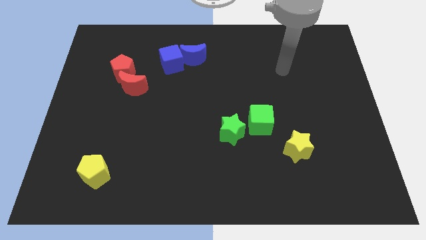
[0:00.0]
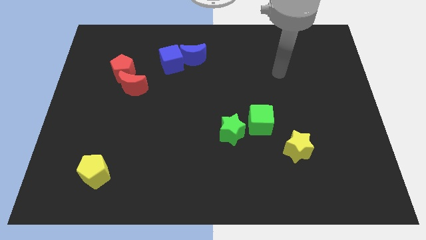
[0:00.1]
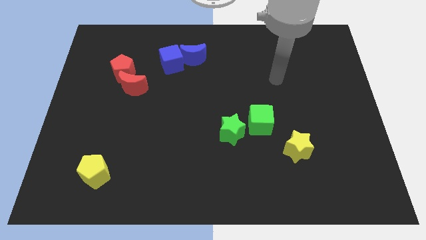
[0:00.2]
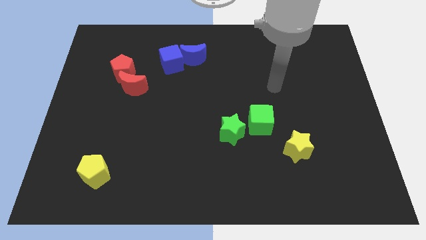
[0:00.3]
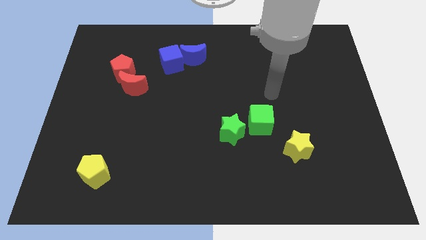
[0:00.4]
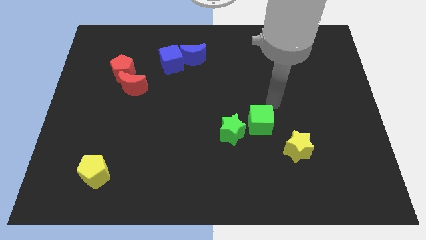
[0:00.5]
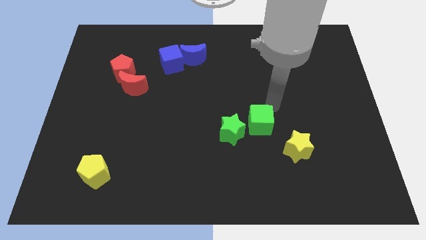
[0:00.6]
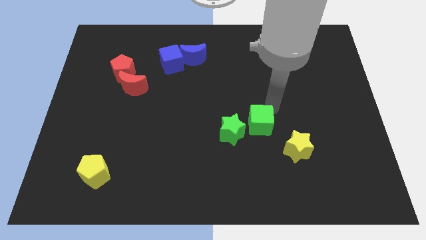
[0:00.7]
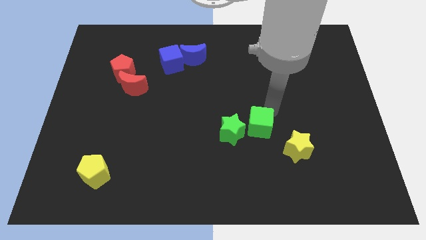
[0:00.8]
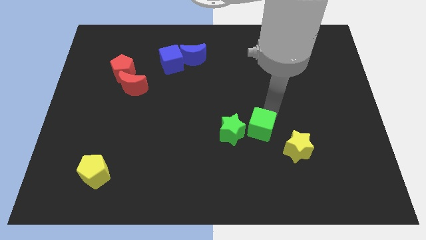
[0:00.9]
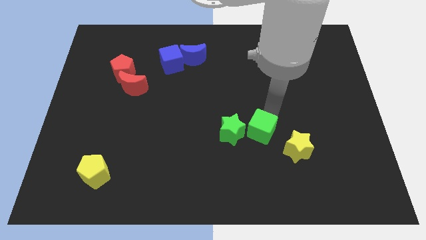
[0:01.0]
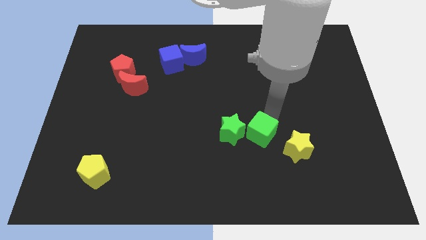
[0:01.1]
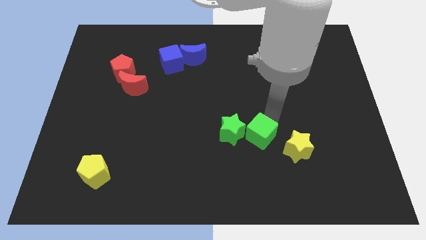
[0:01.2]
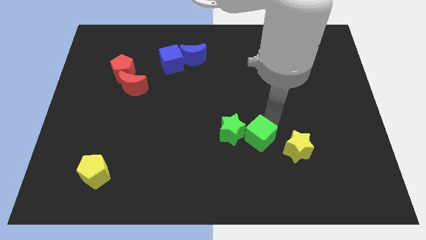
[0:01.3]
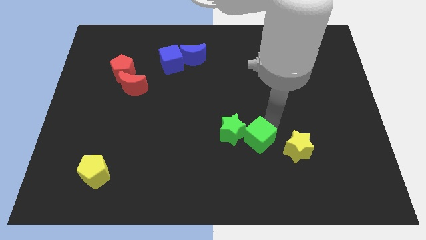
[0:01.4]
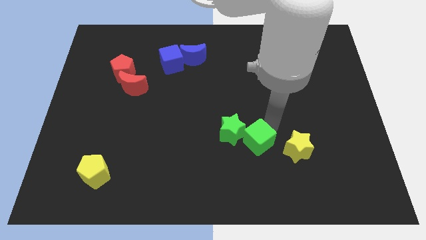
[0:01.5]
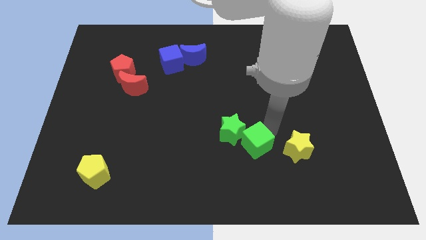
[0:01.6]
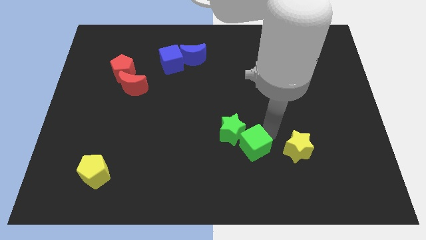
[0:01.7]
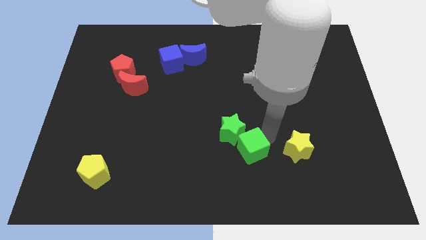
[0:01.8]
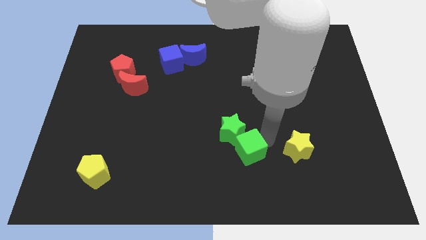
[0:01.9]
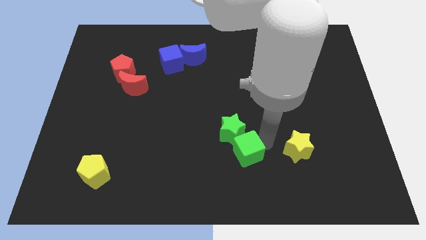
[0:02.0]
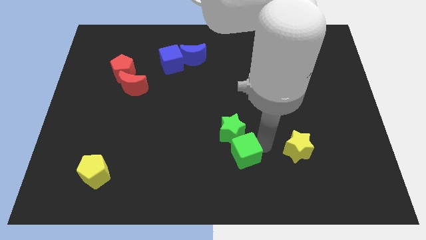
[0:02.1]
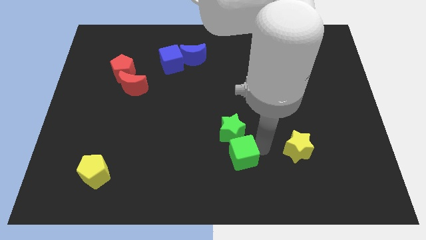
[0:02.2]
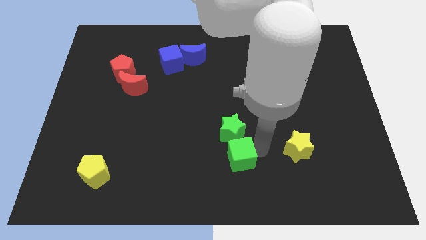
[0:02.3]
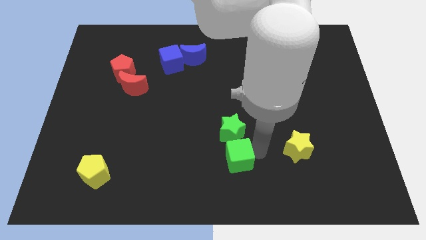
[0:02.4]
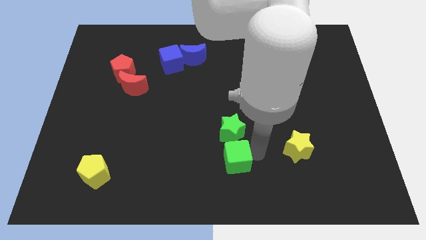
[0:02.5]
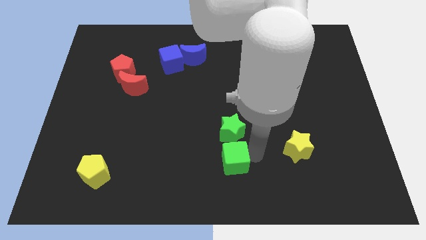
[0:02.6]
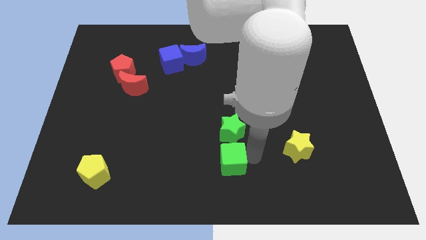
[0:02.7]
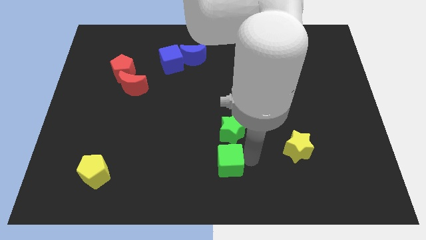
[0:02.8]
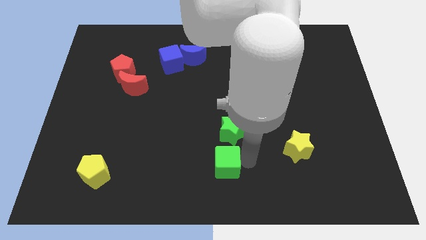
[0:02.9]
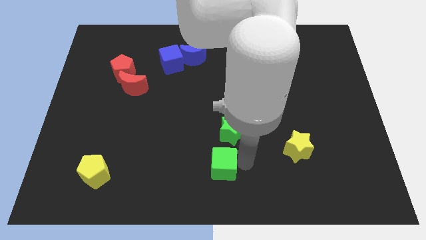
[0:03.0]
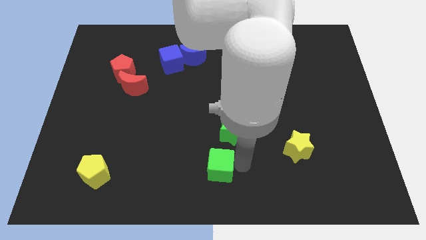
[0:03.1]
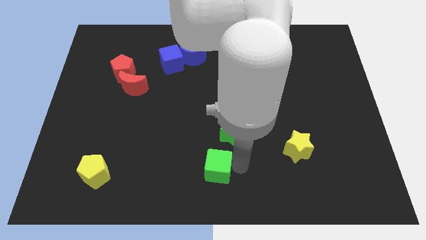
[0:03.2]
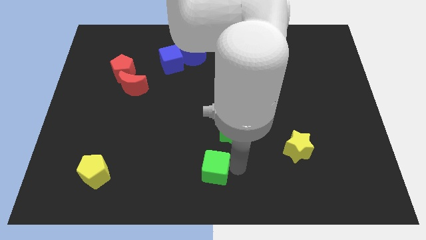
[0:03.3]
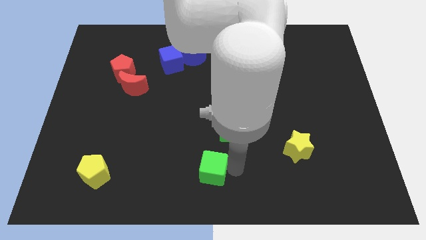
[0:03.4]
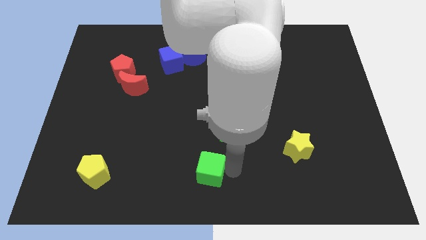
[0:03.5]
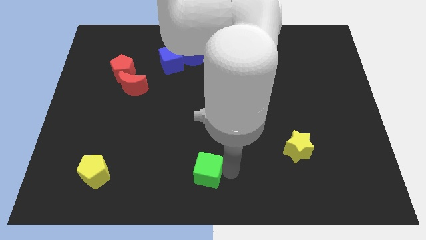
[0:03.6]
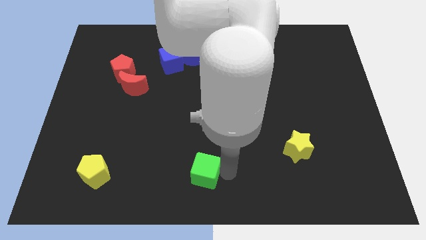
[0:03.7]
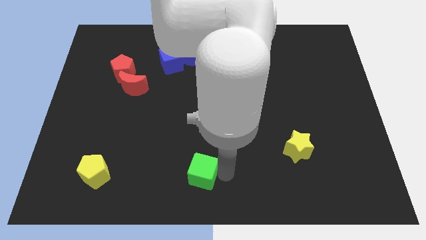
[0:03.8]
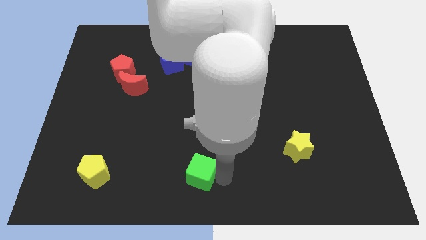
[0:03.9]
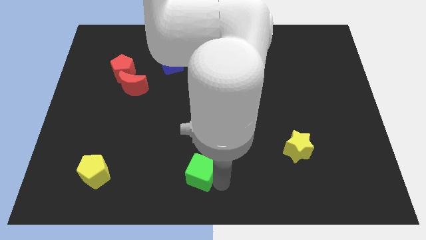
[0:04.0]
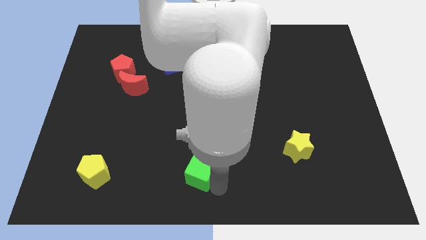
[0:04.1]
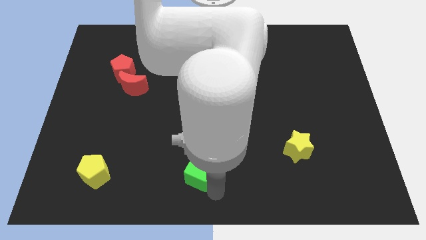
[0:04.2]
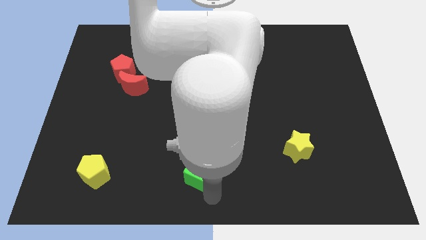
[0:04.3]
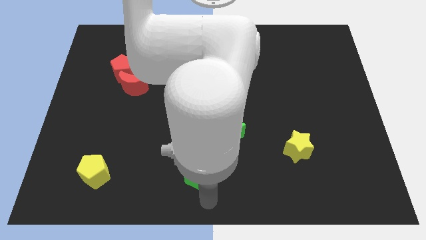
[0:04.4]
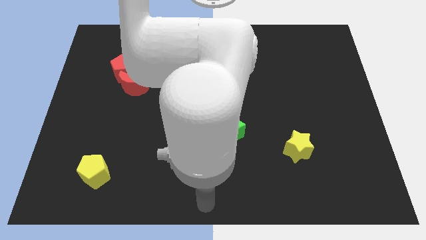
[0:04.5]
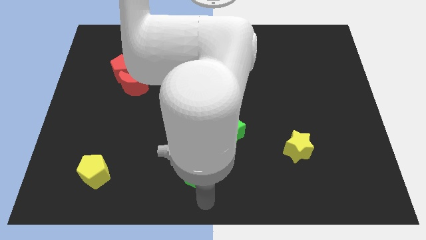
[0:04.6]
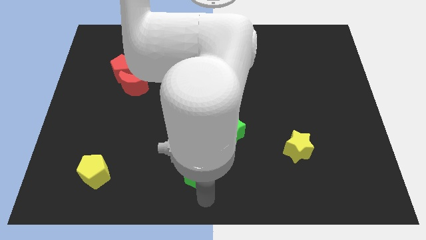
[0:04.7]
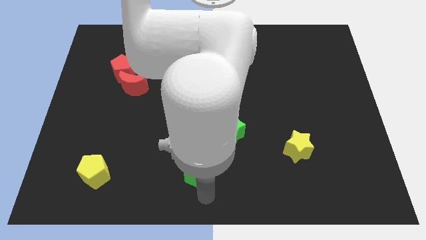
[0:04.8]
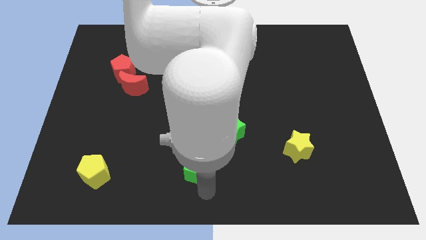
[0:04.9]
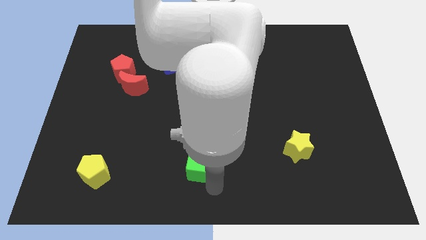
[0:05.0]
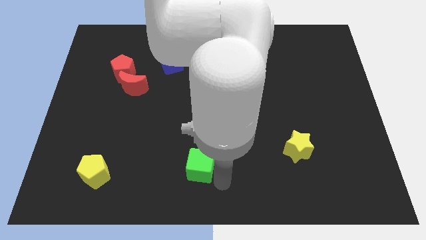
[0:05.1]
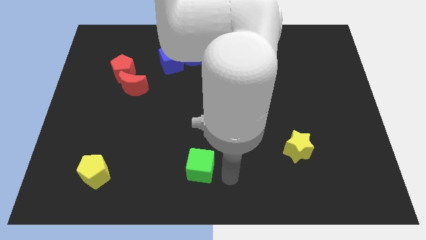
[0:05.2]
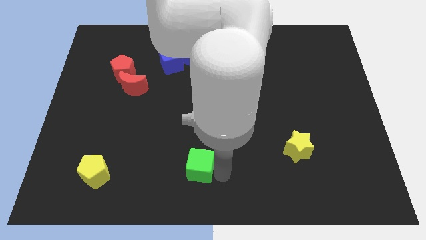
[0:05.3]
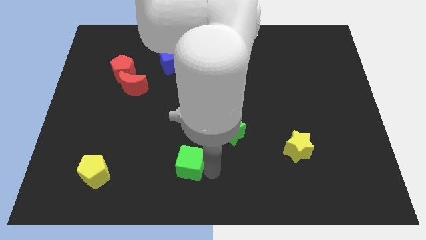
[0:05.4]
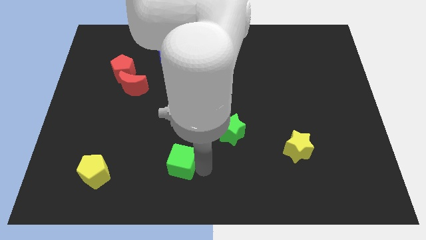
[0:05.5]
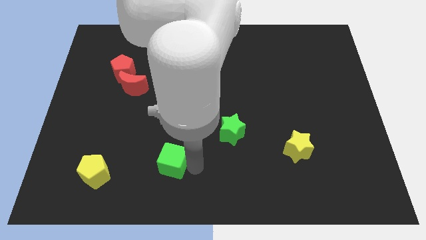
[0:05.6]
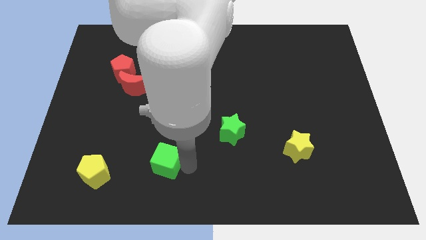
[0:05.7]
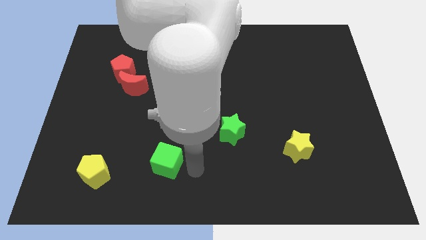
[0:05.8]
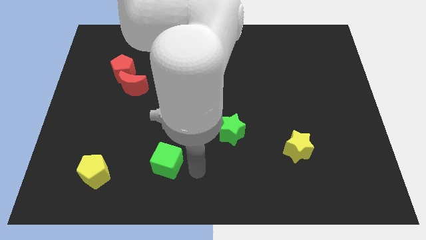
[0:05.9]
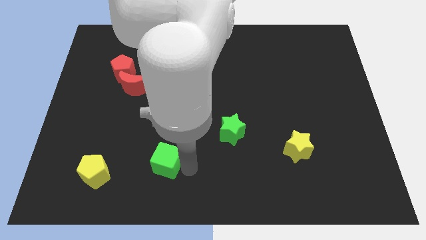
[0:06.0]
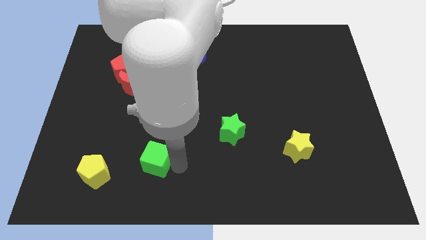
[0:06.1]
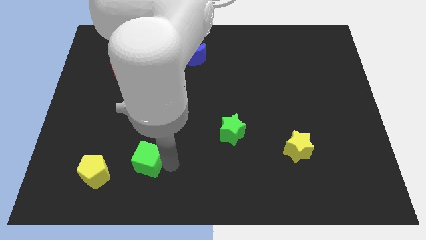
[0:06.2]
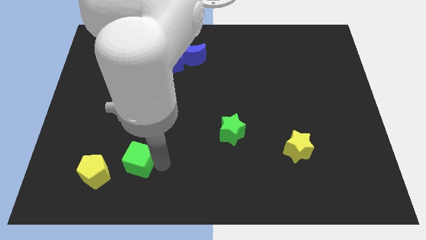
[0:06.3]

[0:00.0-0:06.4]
move the green cube diagonally up and to the right of the yellow pentagon

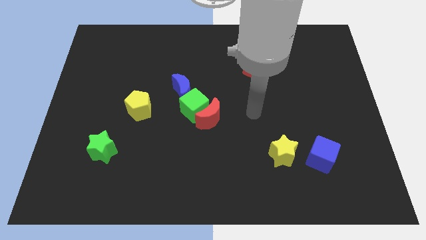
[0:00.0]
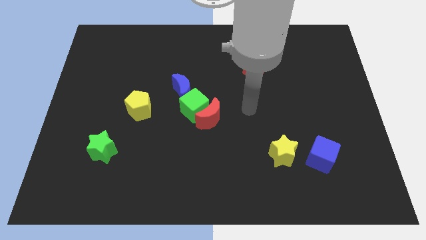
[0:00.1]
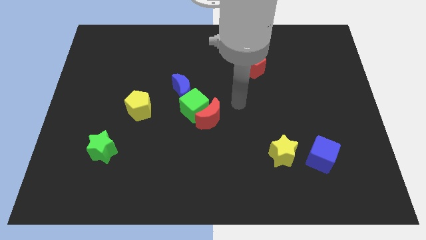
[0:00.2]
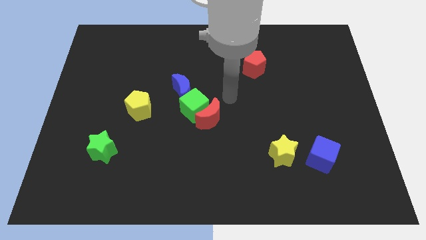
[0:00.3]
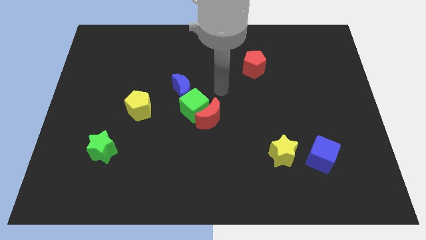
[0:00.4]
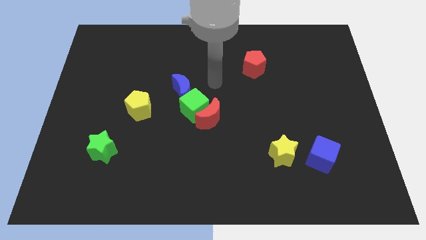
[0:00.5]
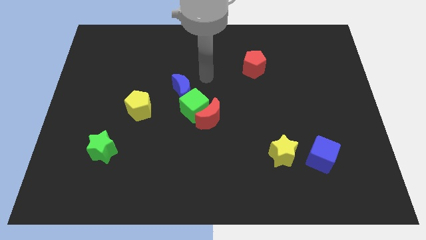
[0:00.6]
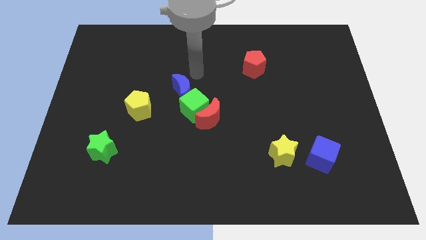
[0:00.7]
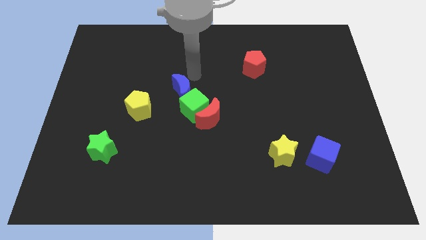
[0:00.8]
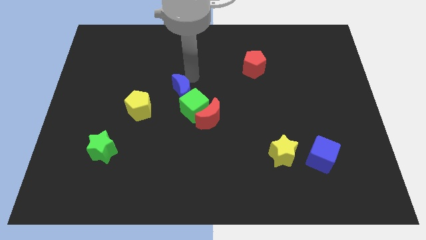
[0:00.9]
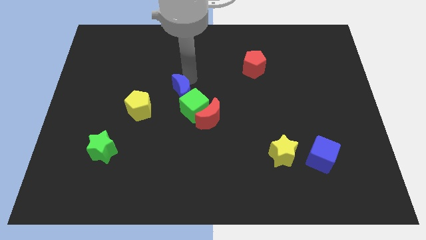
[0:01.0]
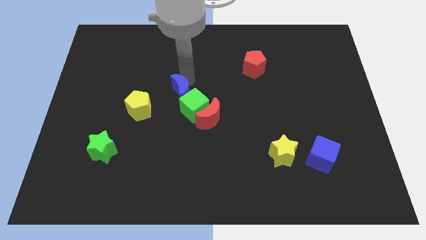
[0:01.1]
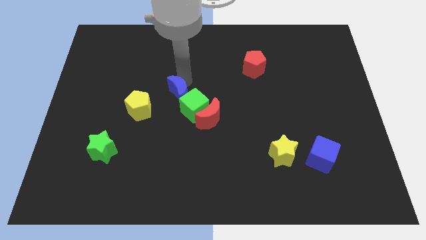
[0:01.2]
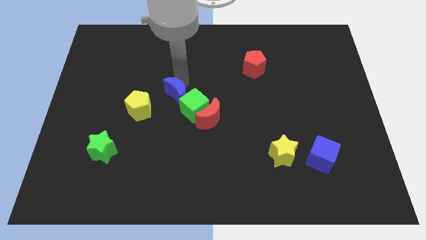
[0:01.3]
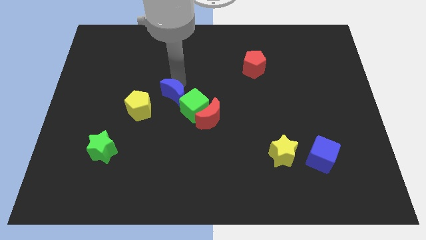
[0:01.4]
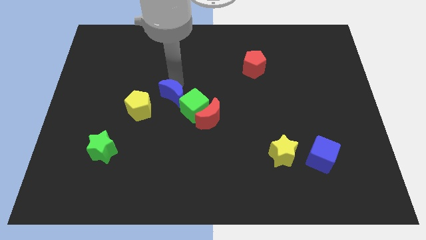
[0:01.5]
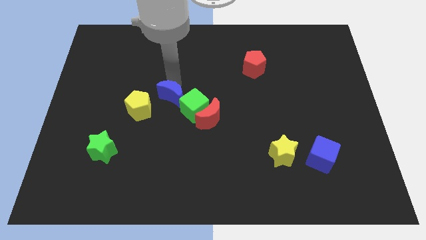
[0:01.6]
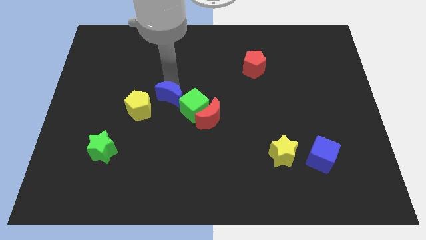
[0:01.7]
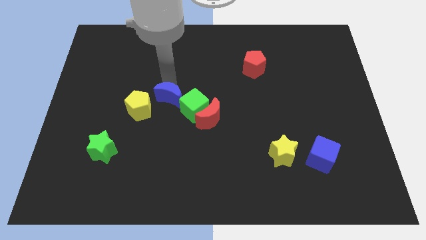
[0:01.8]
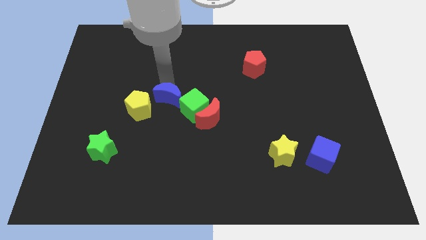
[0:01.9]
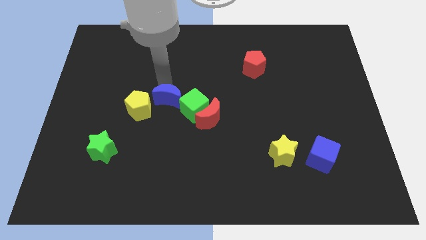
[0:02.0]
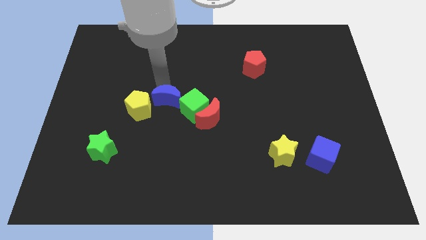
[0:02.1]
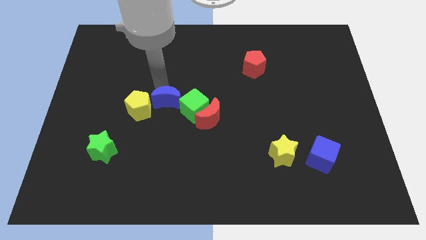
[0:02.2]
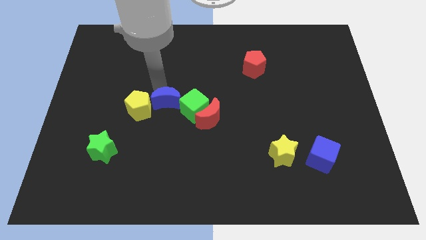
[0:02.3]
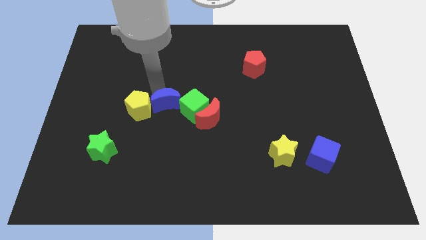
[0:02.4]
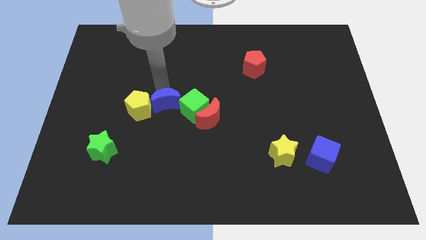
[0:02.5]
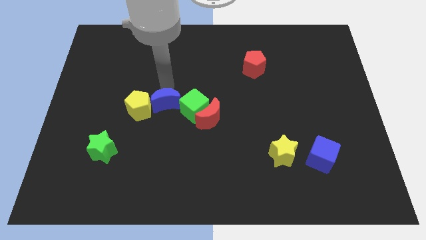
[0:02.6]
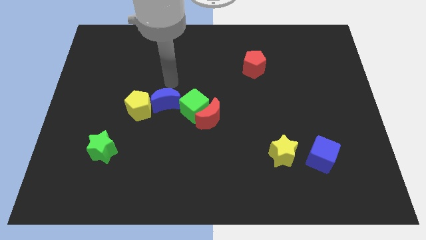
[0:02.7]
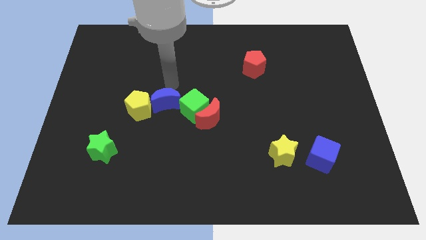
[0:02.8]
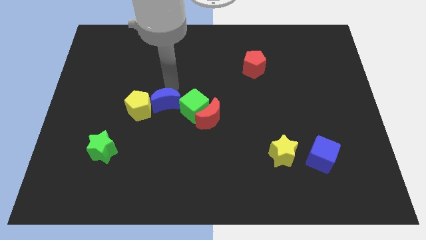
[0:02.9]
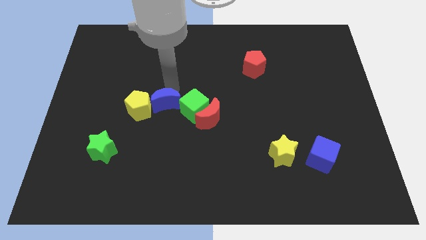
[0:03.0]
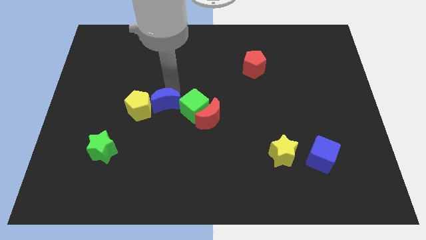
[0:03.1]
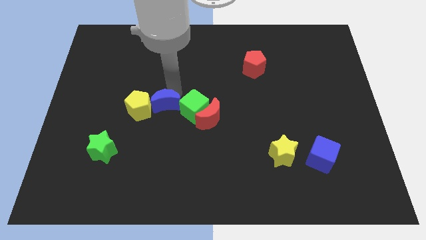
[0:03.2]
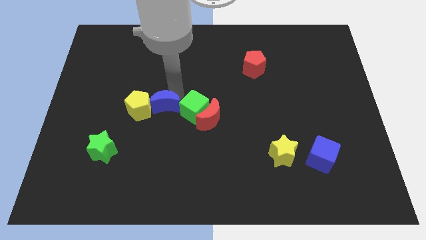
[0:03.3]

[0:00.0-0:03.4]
put the blue moon diagonally down and to the right of the yellow pentagon
